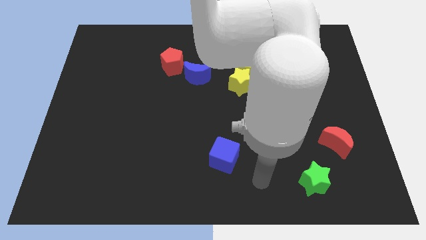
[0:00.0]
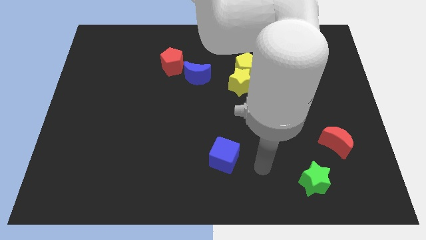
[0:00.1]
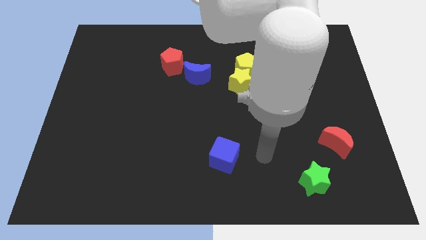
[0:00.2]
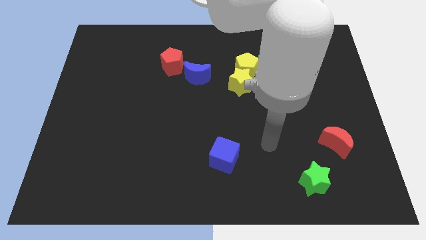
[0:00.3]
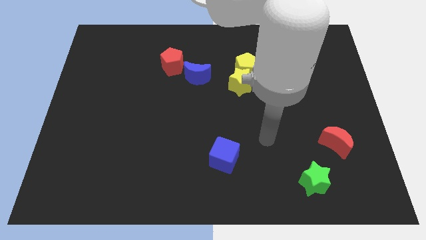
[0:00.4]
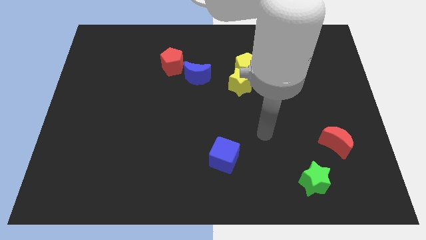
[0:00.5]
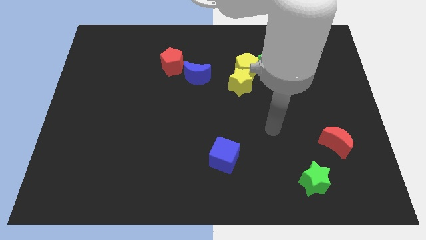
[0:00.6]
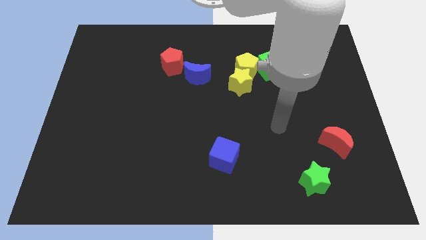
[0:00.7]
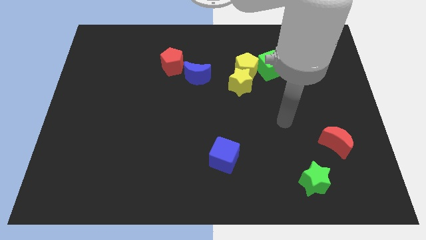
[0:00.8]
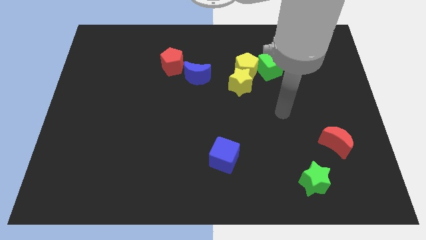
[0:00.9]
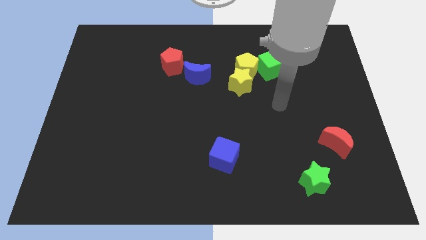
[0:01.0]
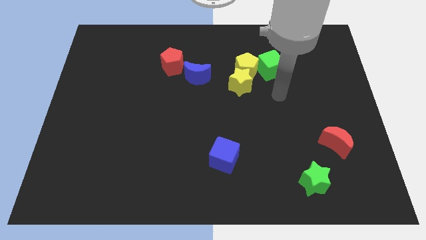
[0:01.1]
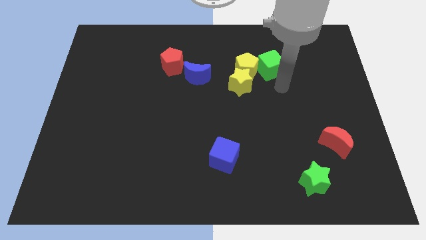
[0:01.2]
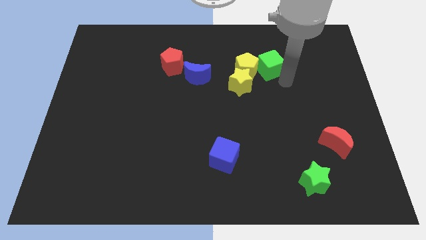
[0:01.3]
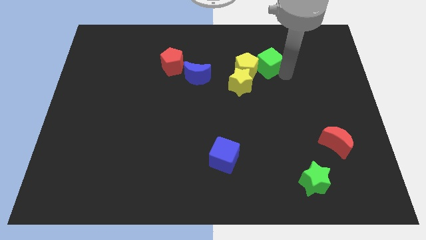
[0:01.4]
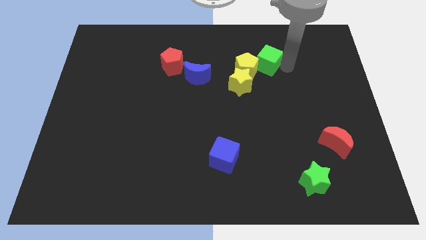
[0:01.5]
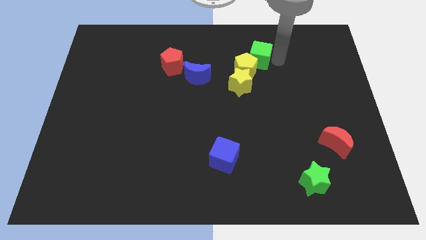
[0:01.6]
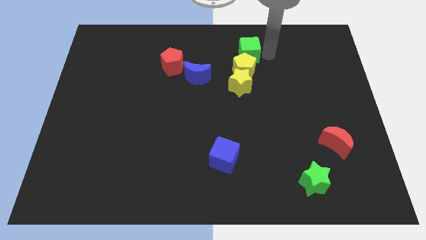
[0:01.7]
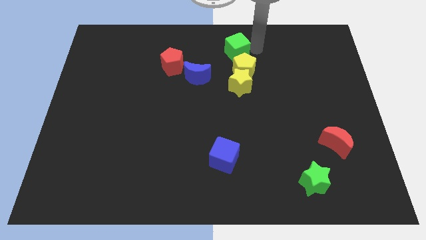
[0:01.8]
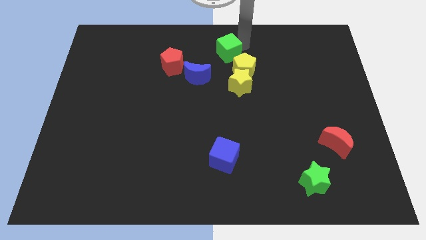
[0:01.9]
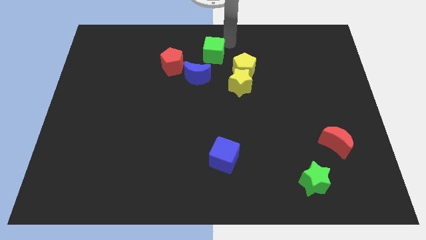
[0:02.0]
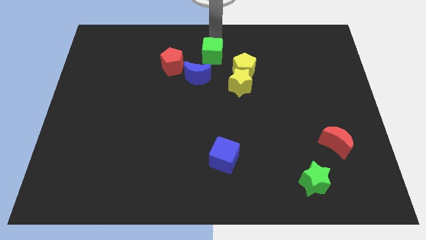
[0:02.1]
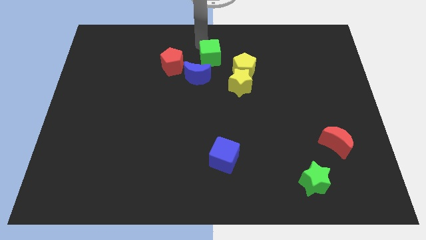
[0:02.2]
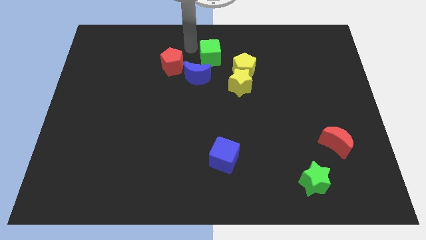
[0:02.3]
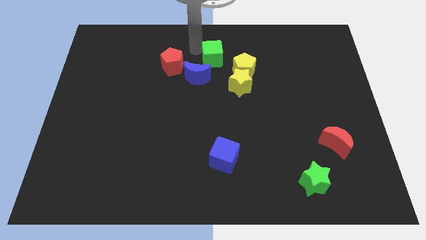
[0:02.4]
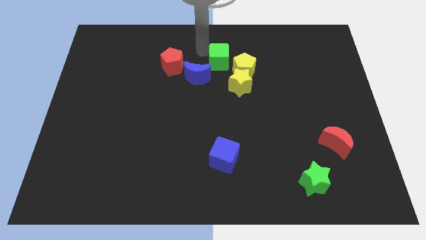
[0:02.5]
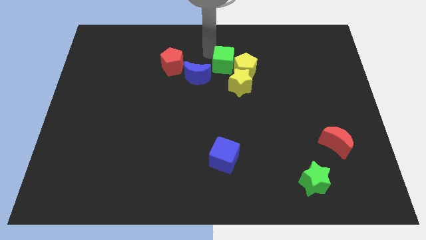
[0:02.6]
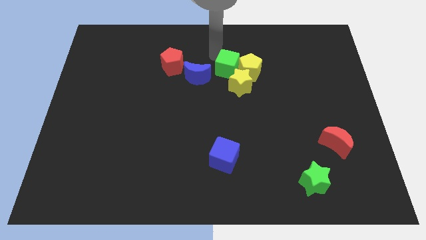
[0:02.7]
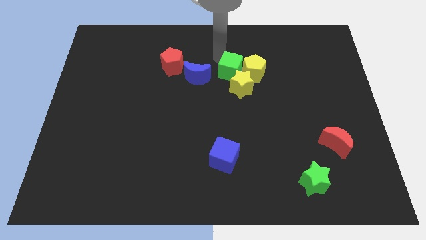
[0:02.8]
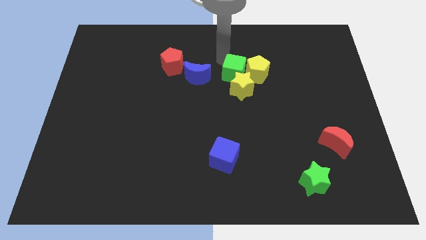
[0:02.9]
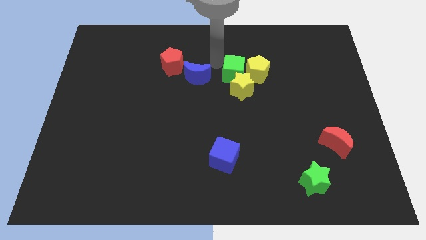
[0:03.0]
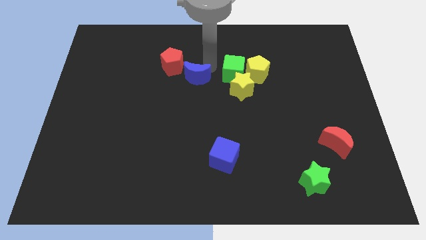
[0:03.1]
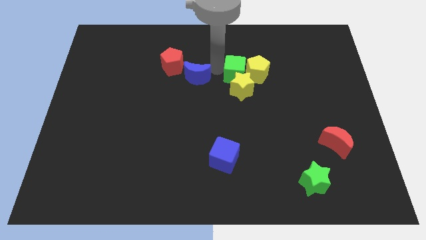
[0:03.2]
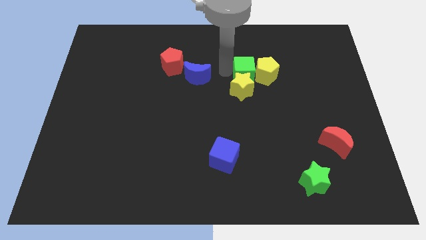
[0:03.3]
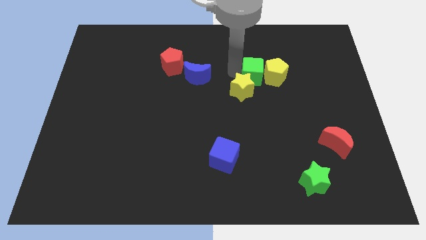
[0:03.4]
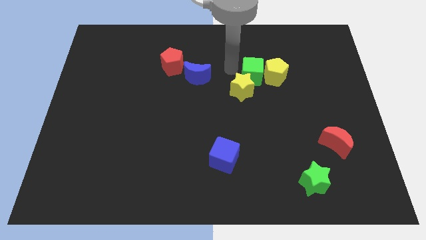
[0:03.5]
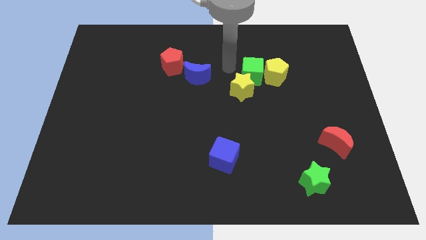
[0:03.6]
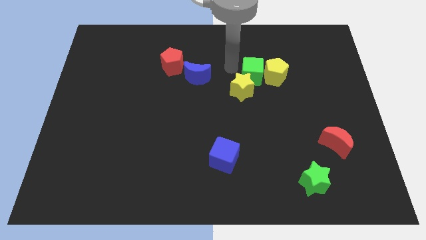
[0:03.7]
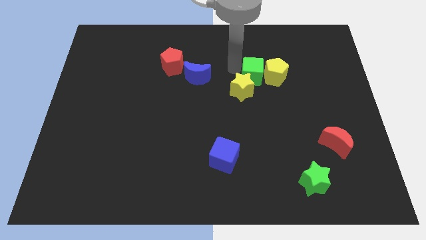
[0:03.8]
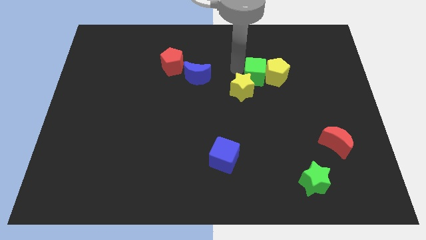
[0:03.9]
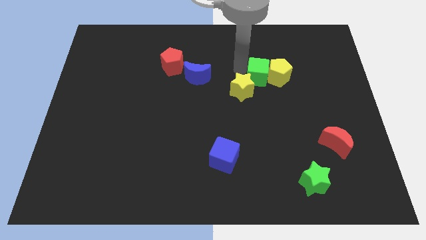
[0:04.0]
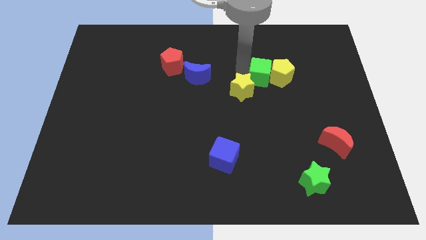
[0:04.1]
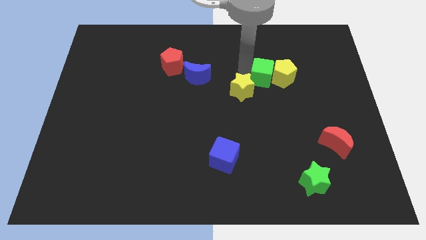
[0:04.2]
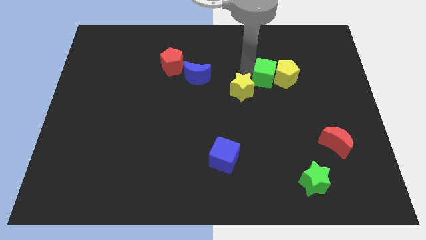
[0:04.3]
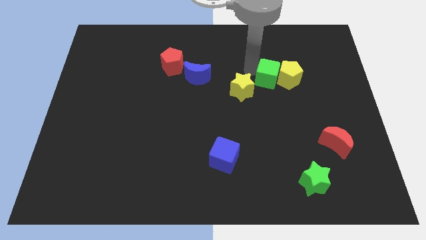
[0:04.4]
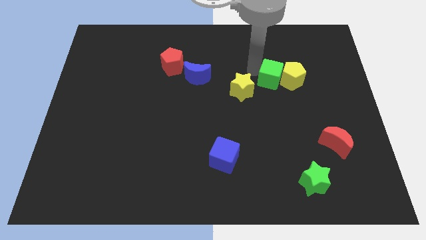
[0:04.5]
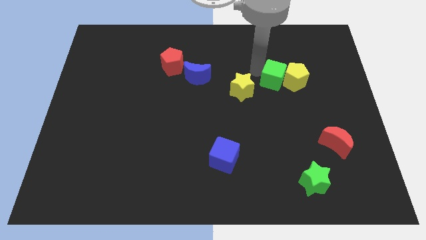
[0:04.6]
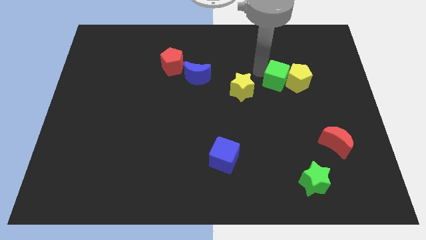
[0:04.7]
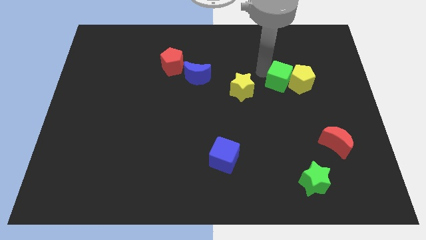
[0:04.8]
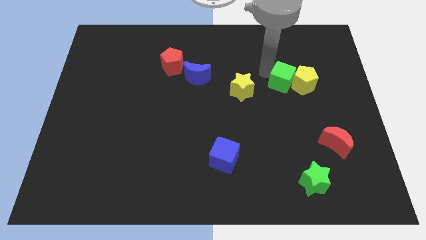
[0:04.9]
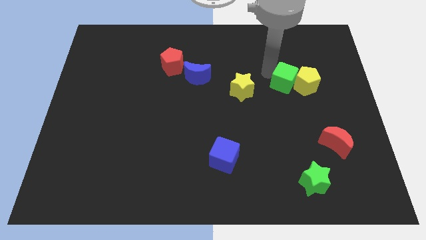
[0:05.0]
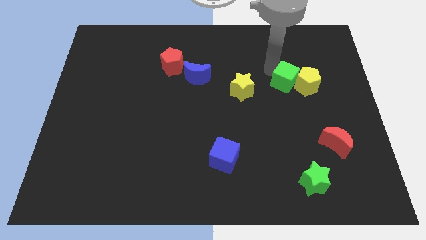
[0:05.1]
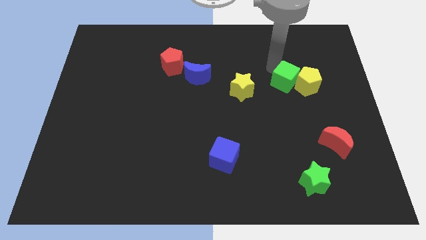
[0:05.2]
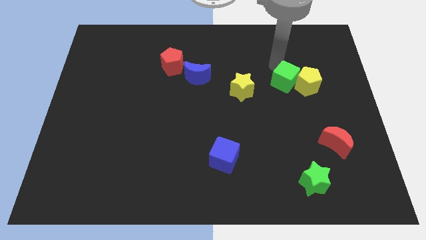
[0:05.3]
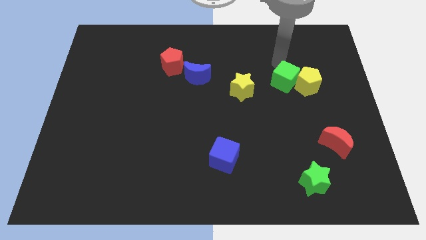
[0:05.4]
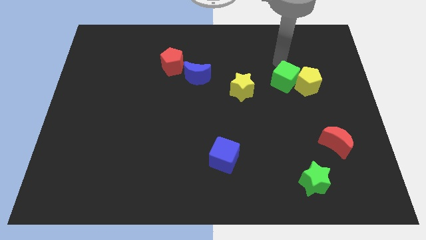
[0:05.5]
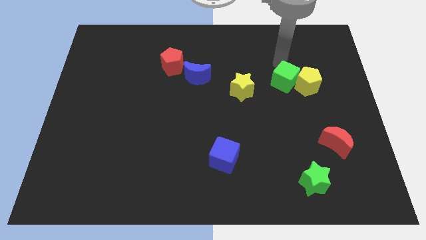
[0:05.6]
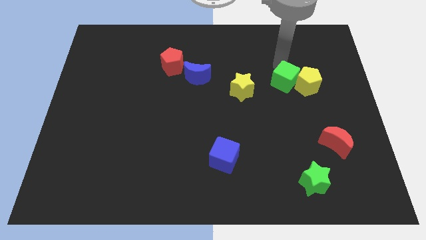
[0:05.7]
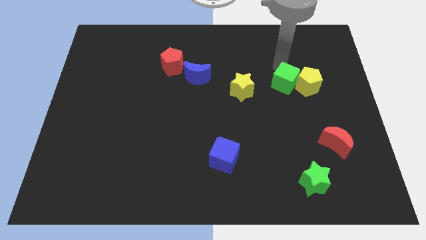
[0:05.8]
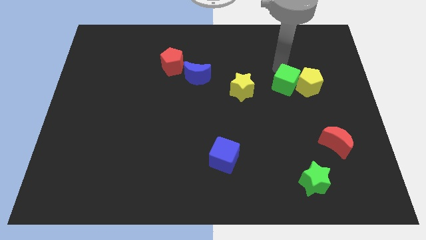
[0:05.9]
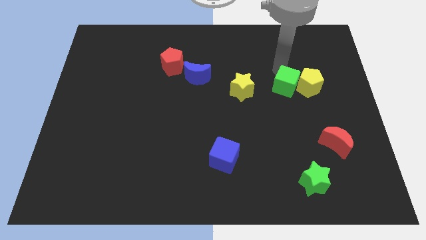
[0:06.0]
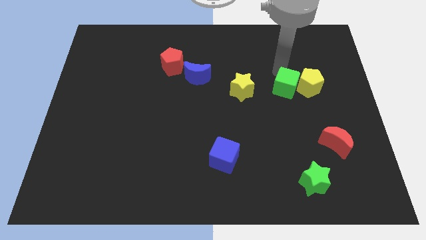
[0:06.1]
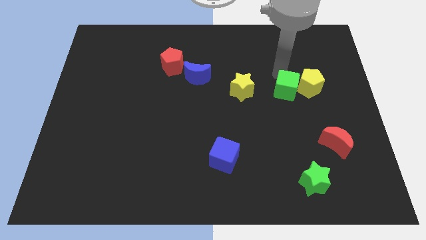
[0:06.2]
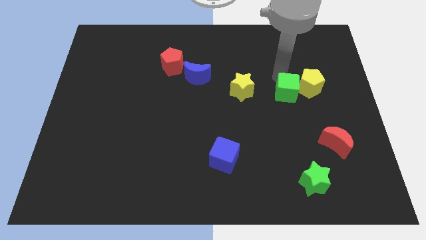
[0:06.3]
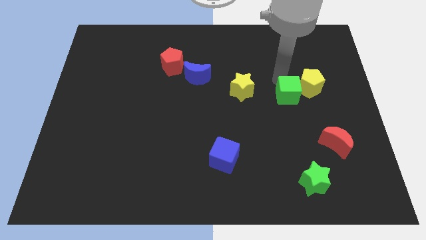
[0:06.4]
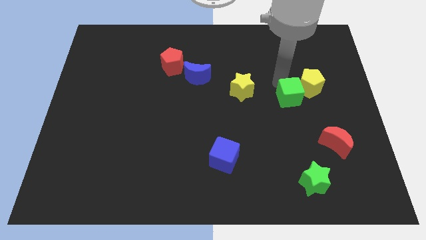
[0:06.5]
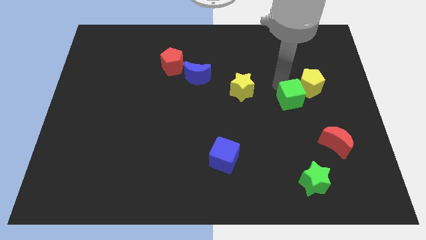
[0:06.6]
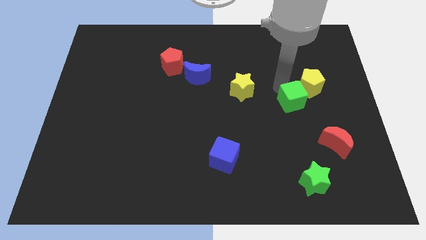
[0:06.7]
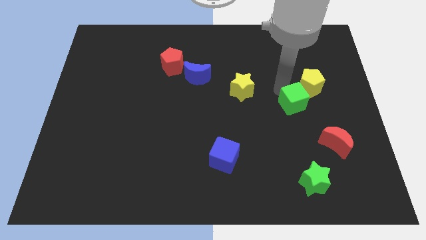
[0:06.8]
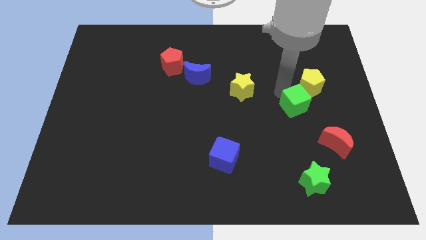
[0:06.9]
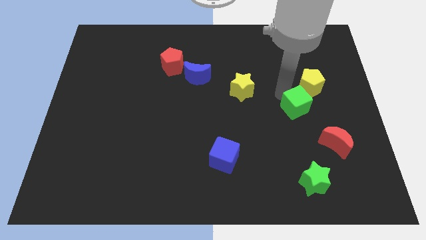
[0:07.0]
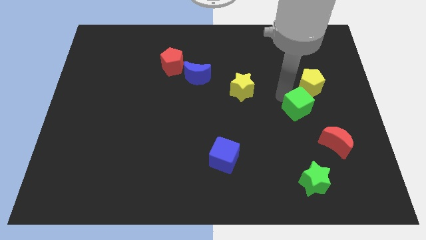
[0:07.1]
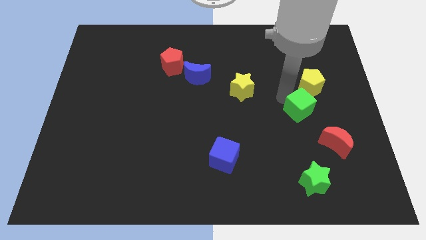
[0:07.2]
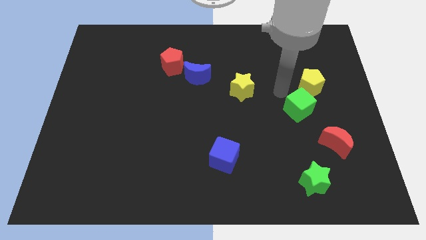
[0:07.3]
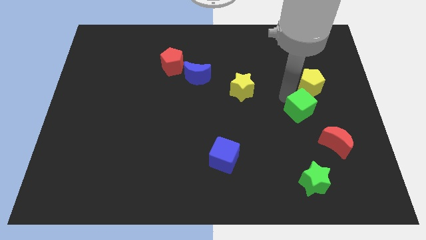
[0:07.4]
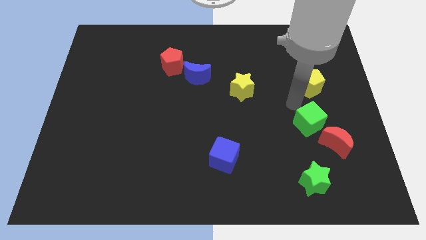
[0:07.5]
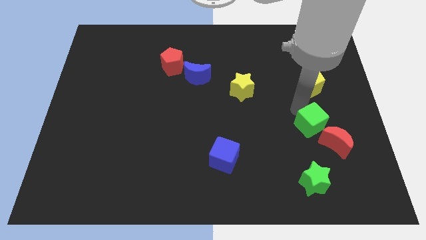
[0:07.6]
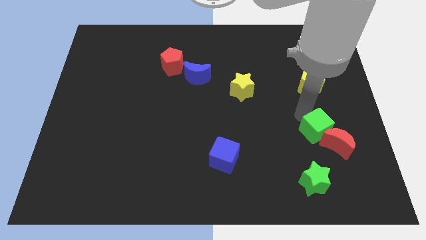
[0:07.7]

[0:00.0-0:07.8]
put the green cube to the red moon

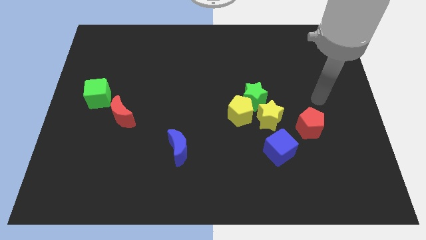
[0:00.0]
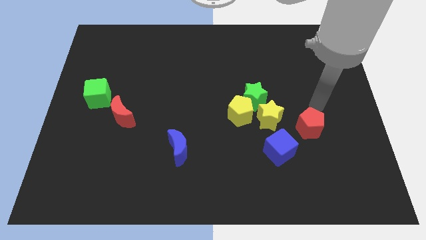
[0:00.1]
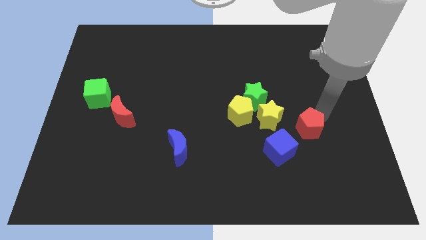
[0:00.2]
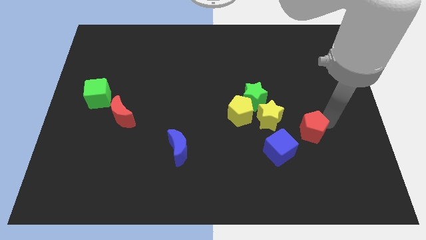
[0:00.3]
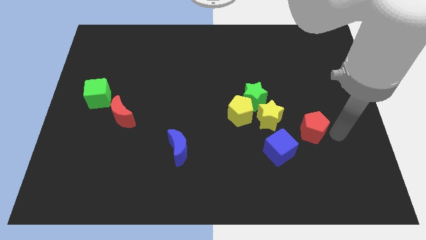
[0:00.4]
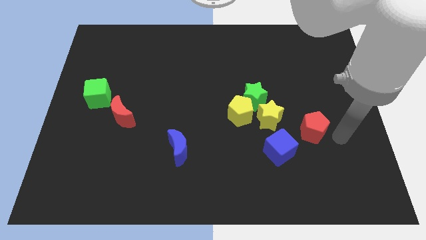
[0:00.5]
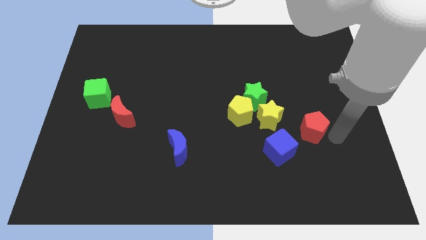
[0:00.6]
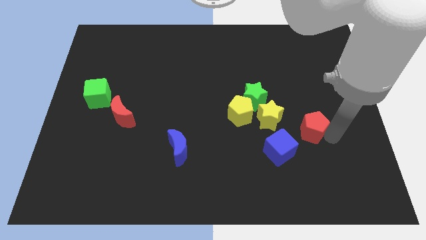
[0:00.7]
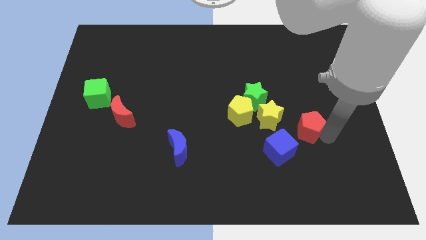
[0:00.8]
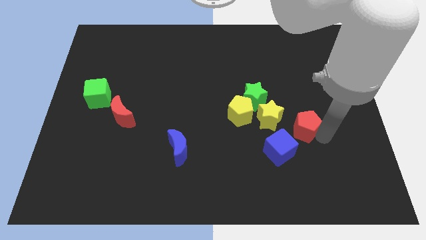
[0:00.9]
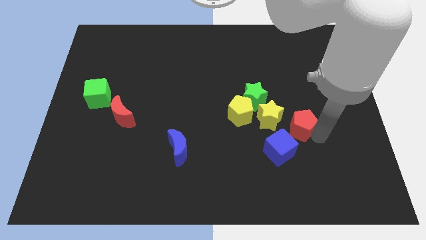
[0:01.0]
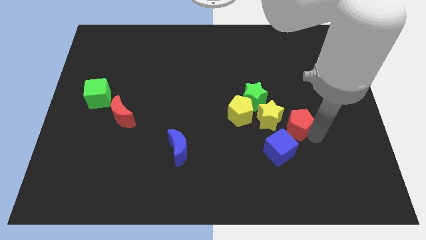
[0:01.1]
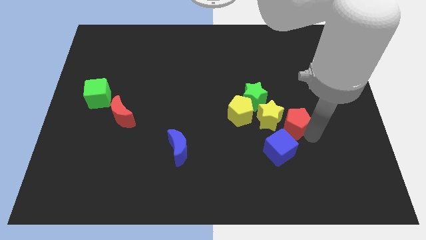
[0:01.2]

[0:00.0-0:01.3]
slide the red pentagon next to the yellow star
